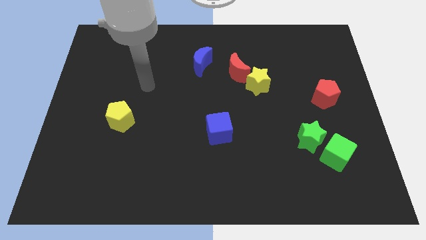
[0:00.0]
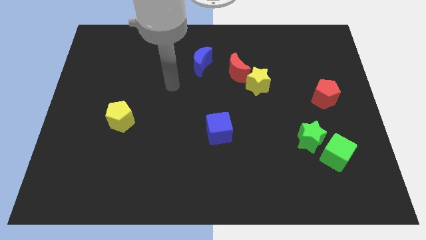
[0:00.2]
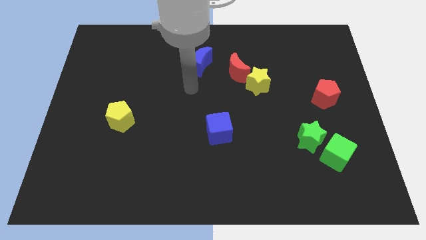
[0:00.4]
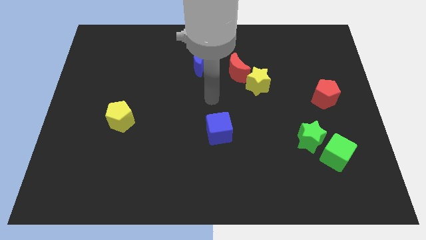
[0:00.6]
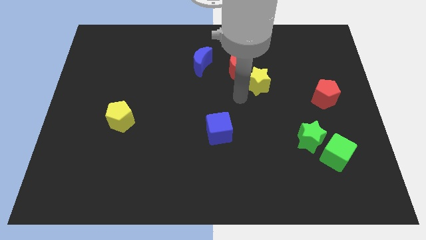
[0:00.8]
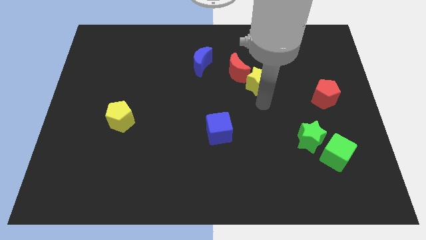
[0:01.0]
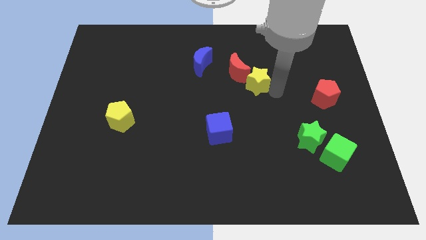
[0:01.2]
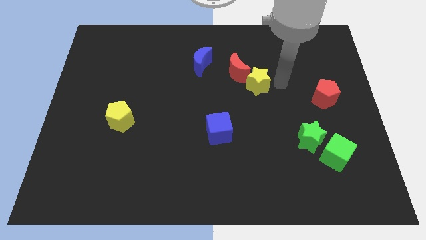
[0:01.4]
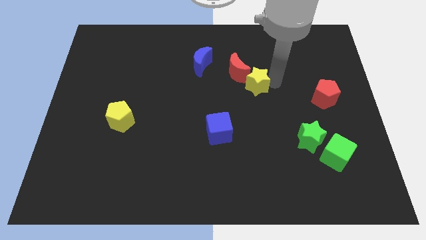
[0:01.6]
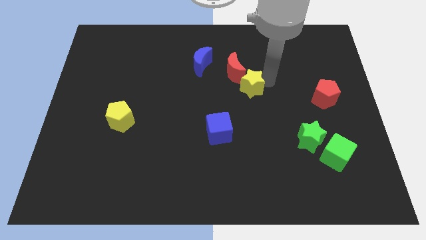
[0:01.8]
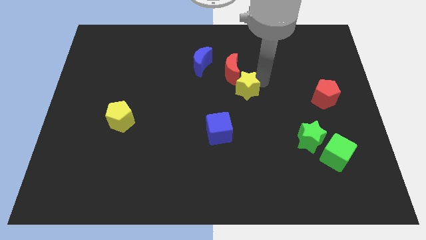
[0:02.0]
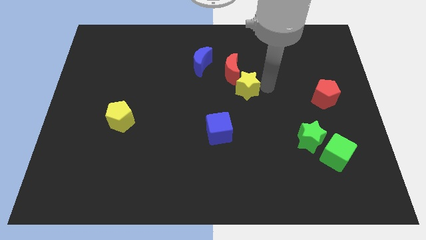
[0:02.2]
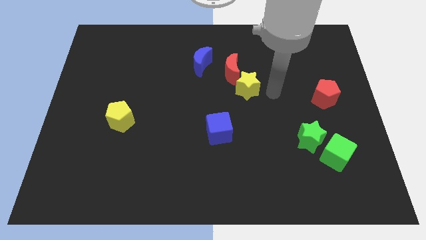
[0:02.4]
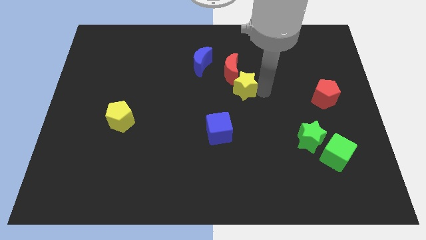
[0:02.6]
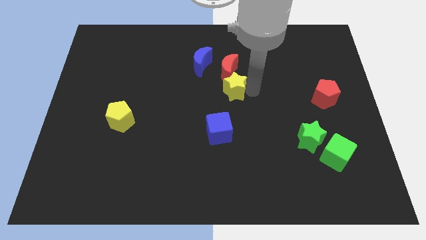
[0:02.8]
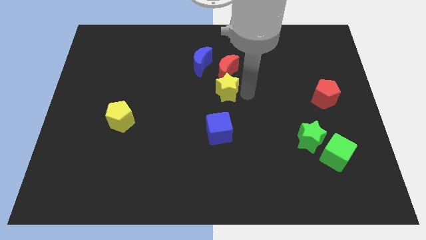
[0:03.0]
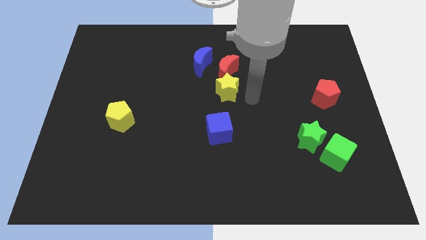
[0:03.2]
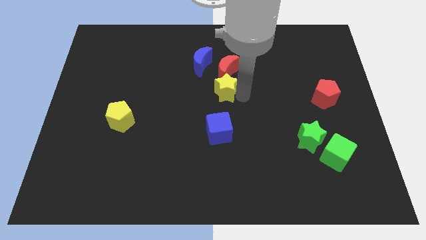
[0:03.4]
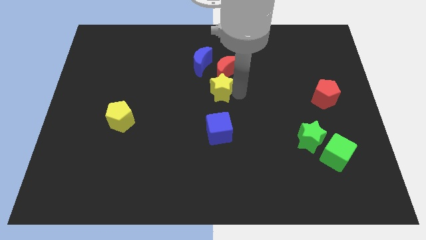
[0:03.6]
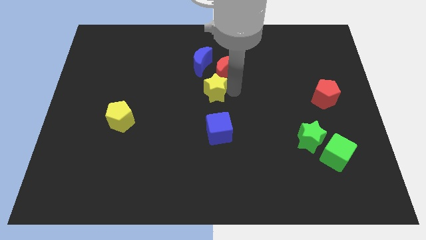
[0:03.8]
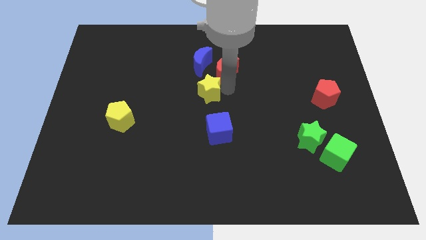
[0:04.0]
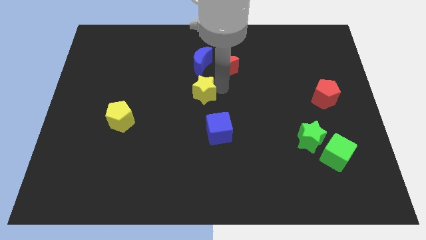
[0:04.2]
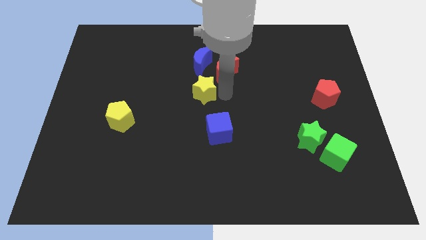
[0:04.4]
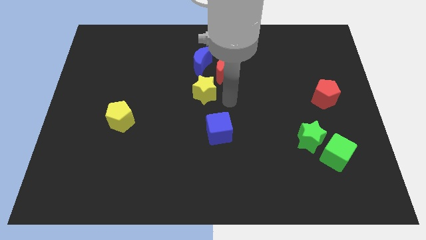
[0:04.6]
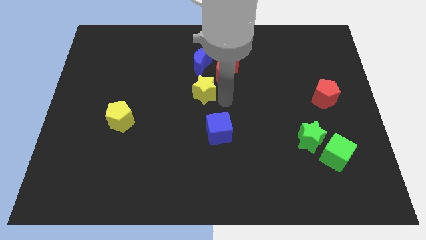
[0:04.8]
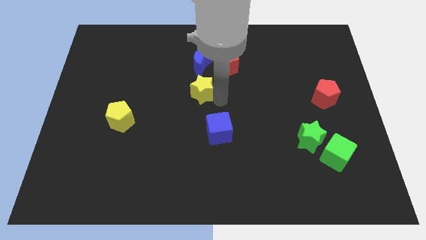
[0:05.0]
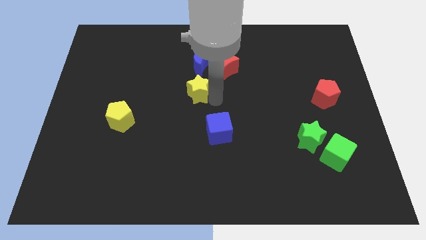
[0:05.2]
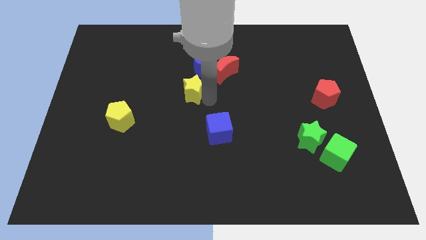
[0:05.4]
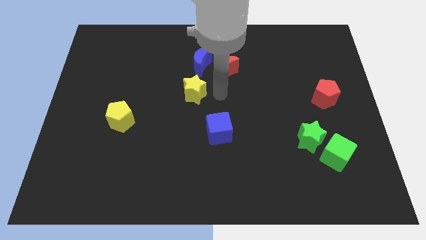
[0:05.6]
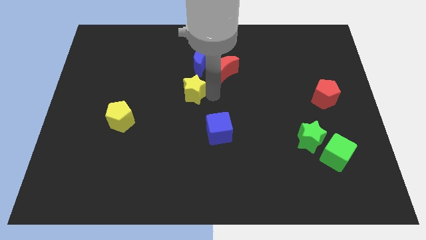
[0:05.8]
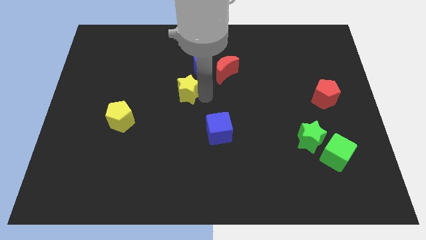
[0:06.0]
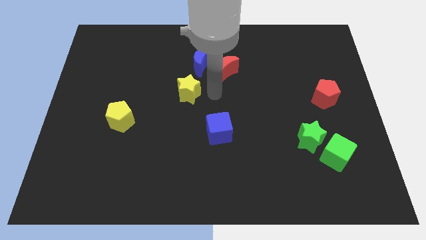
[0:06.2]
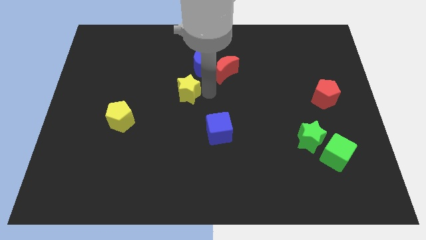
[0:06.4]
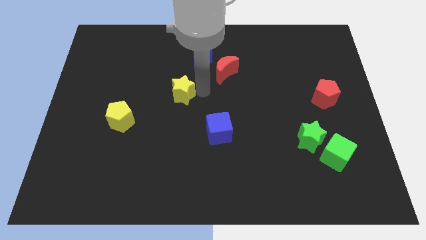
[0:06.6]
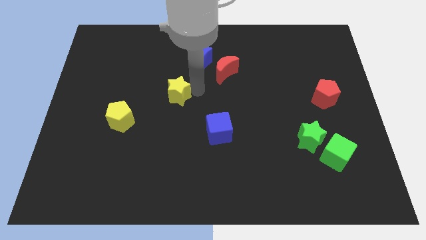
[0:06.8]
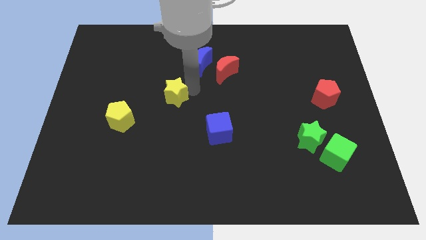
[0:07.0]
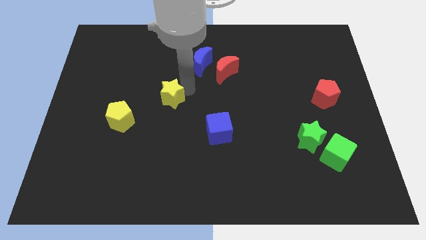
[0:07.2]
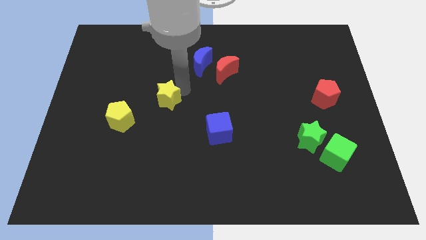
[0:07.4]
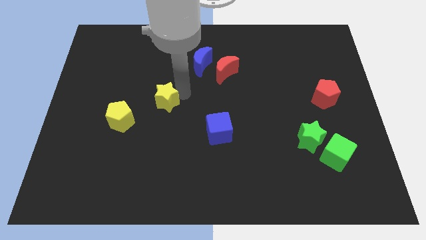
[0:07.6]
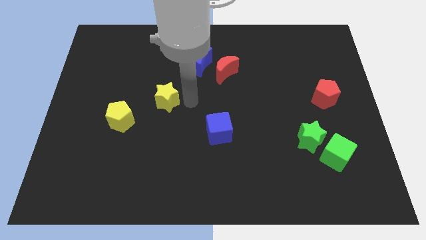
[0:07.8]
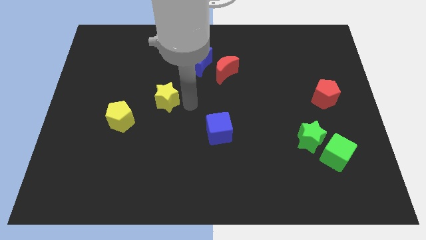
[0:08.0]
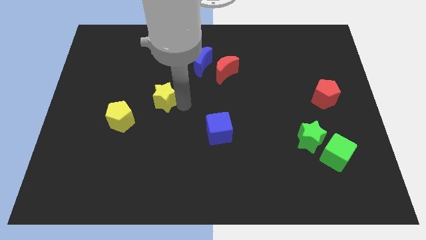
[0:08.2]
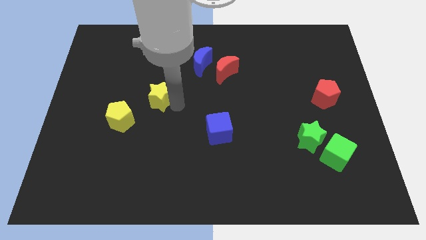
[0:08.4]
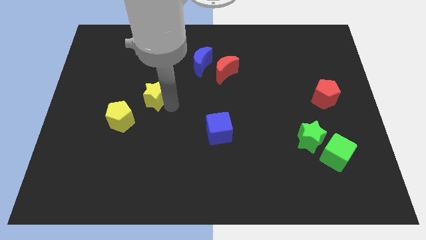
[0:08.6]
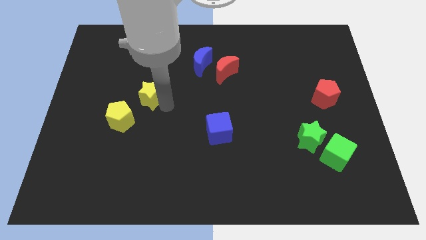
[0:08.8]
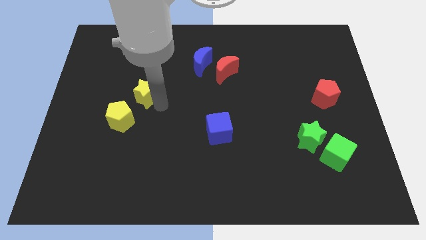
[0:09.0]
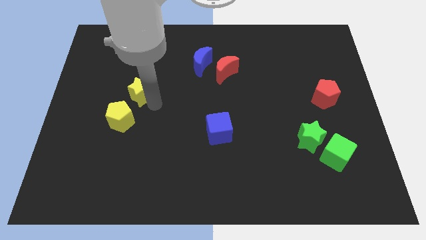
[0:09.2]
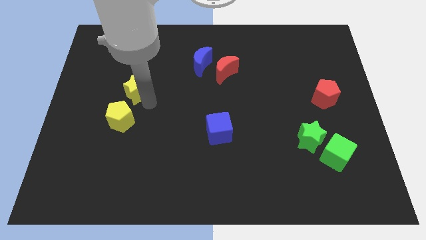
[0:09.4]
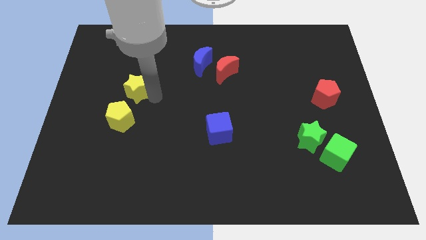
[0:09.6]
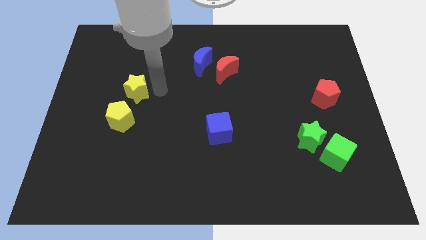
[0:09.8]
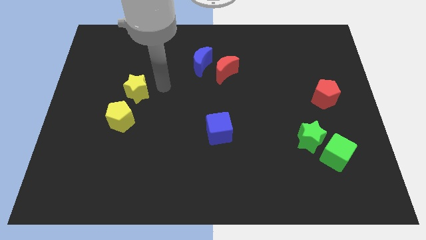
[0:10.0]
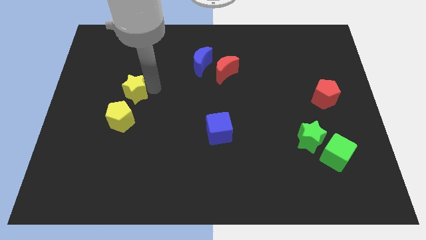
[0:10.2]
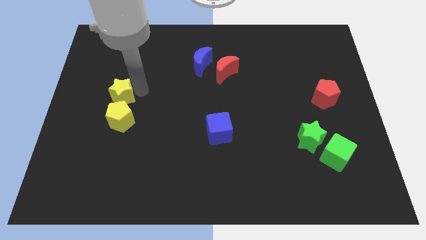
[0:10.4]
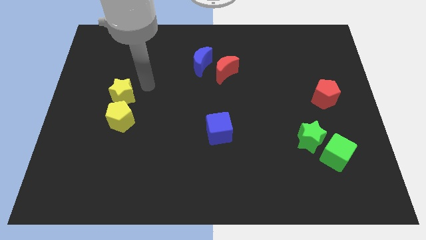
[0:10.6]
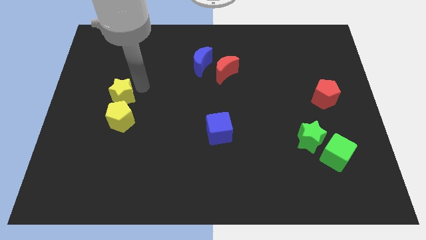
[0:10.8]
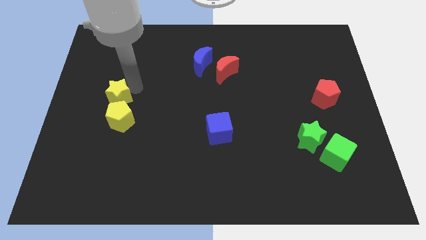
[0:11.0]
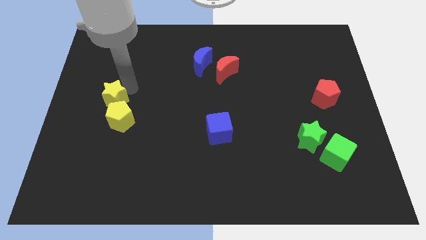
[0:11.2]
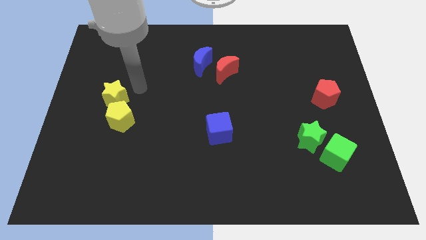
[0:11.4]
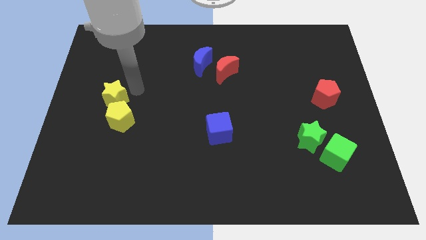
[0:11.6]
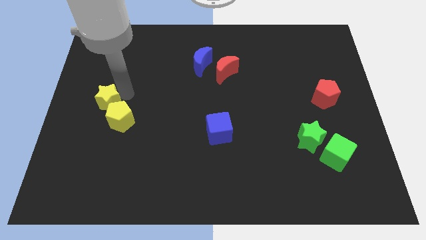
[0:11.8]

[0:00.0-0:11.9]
slide the yellow star to the left side of the board
